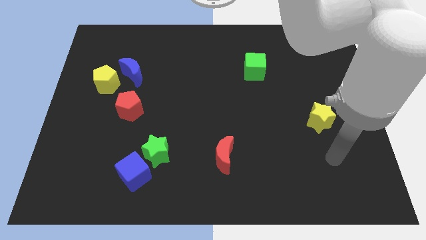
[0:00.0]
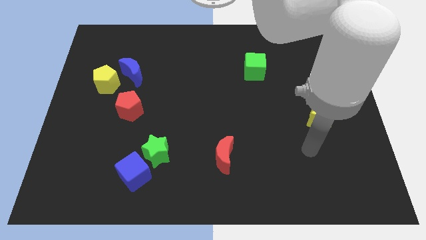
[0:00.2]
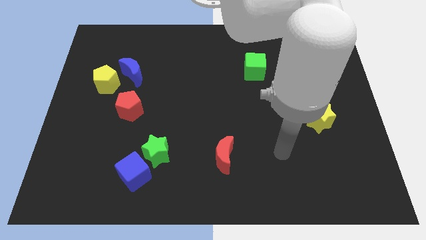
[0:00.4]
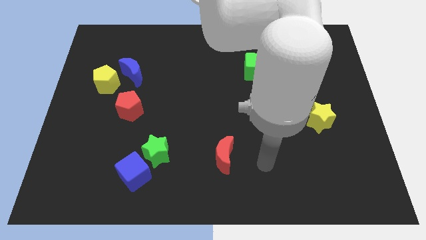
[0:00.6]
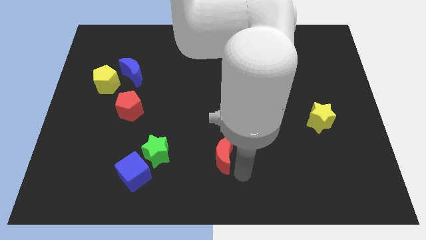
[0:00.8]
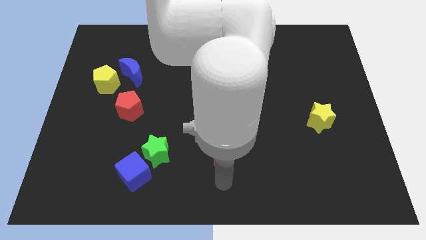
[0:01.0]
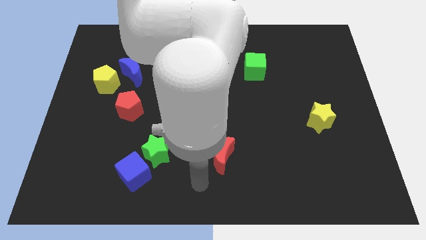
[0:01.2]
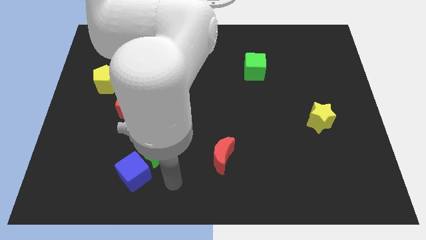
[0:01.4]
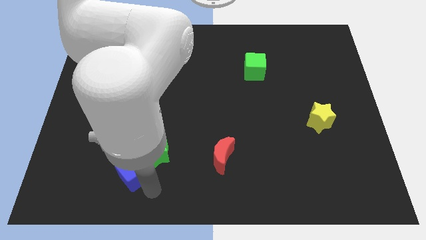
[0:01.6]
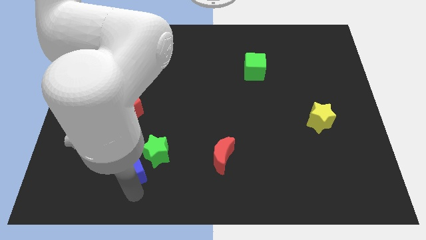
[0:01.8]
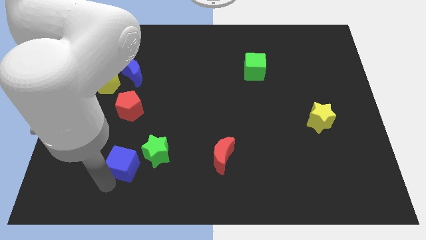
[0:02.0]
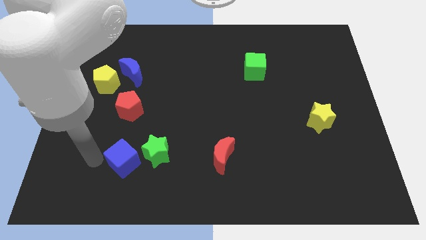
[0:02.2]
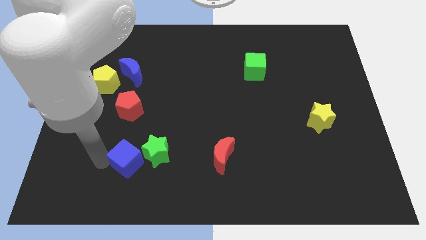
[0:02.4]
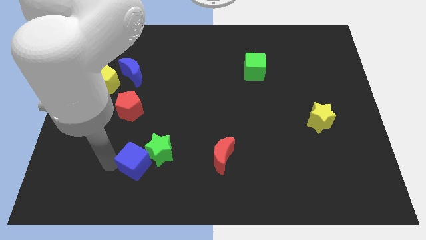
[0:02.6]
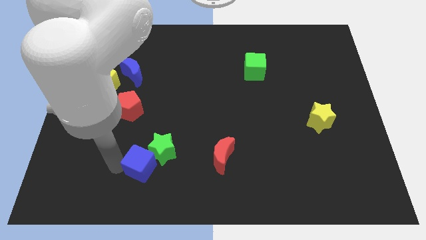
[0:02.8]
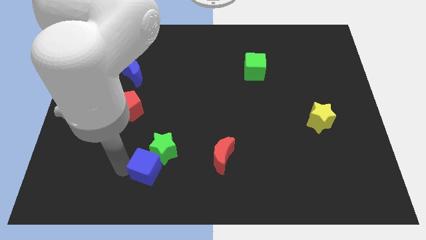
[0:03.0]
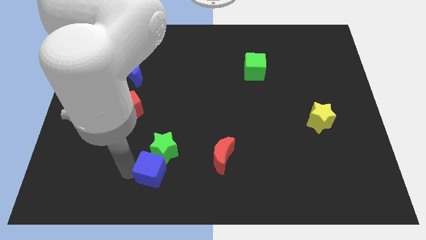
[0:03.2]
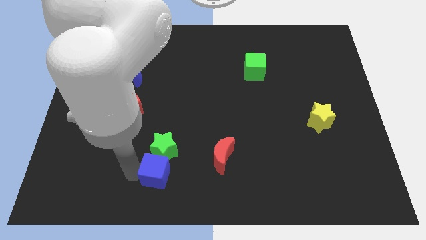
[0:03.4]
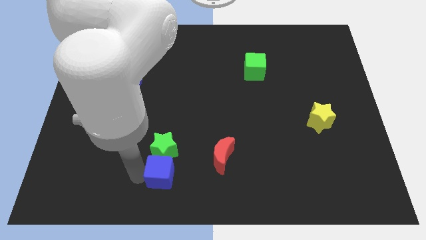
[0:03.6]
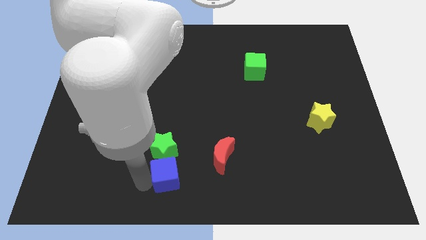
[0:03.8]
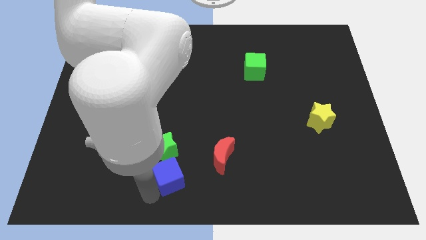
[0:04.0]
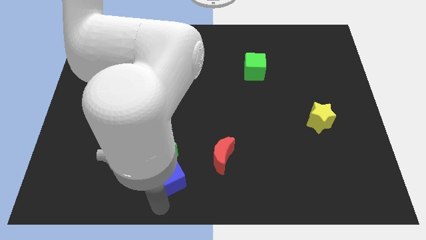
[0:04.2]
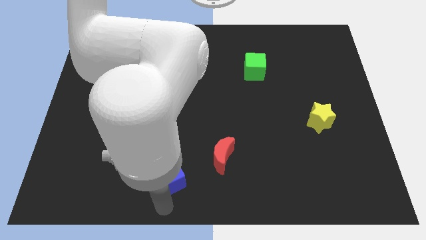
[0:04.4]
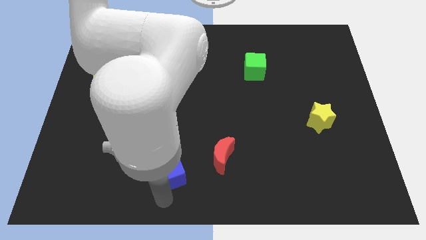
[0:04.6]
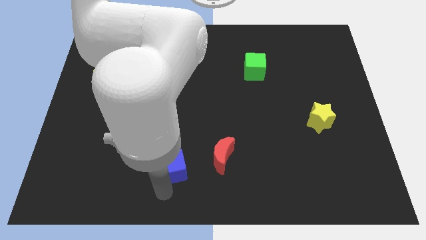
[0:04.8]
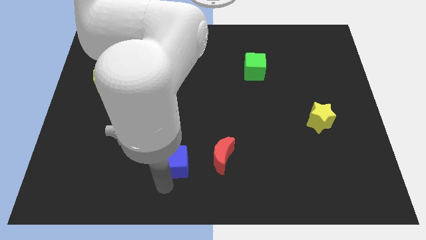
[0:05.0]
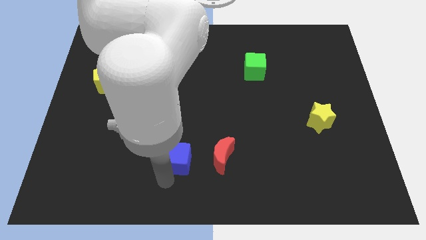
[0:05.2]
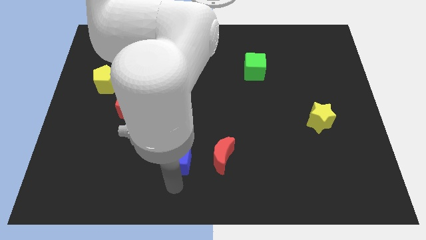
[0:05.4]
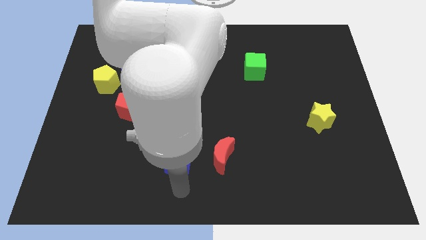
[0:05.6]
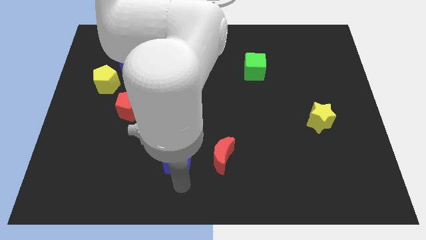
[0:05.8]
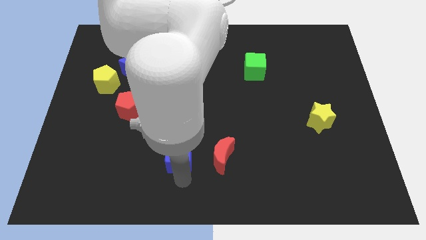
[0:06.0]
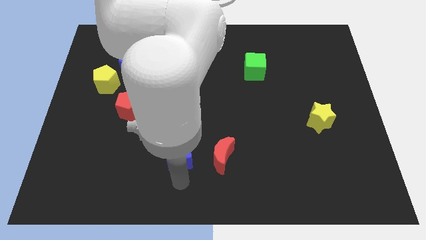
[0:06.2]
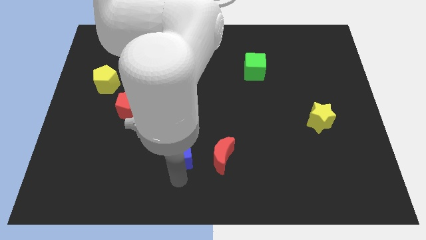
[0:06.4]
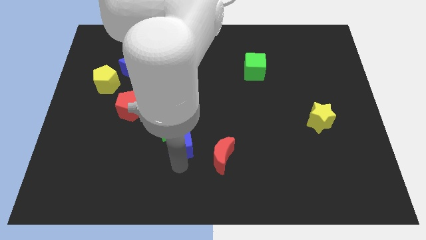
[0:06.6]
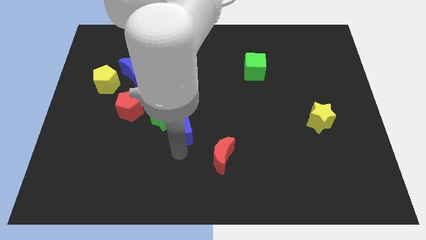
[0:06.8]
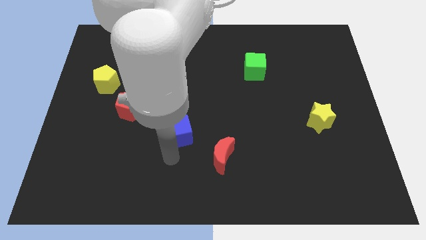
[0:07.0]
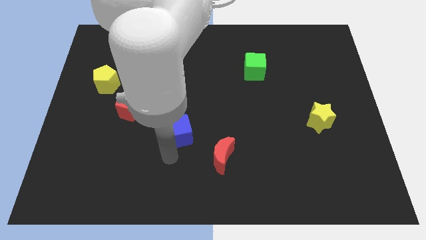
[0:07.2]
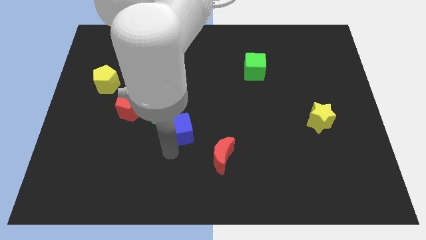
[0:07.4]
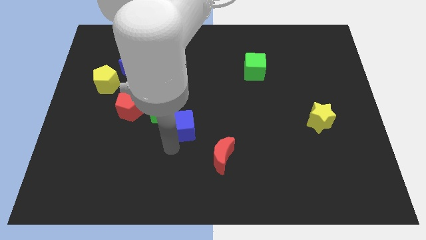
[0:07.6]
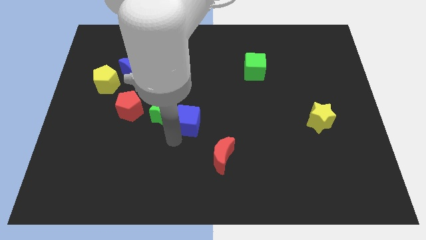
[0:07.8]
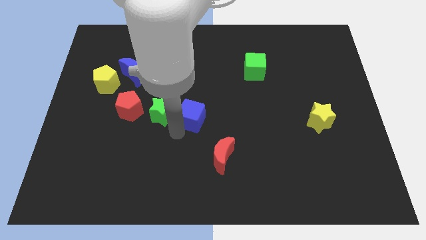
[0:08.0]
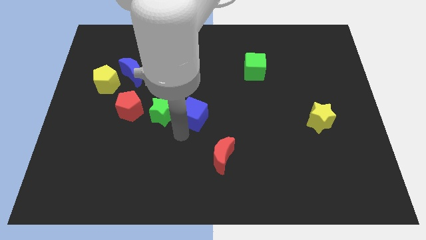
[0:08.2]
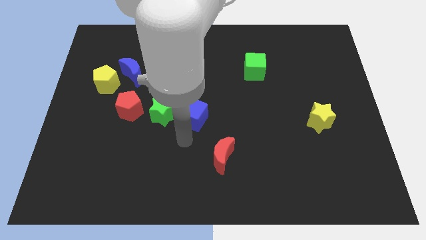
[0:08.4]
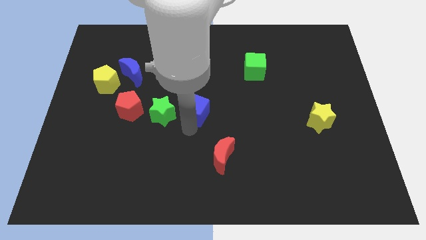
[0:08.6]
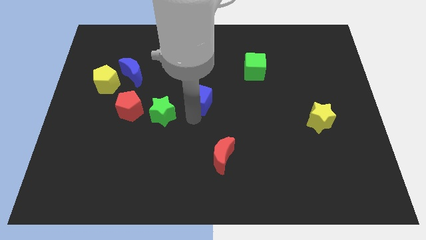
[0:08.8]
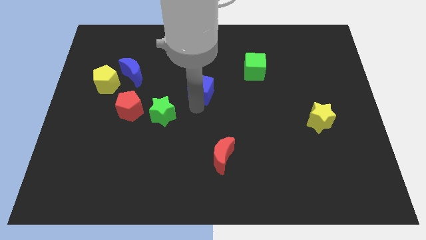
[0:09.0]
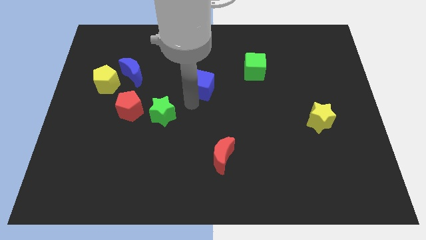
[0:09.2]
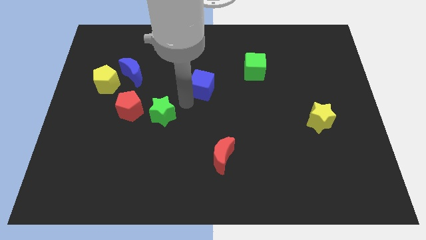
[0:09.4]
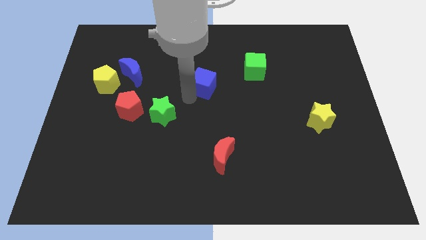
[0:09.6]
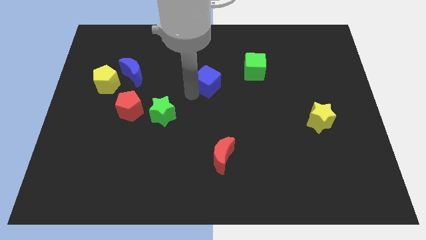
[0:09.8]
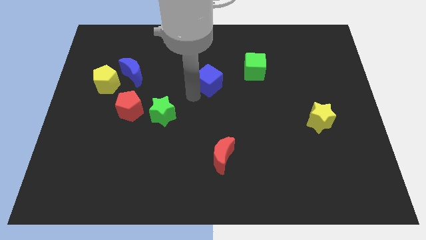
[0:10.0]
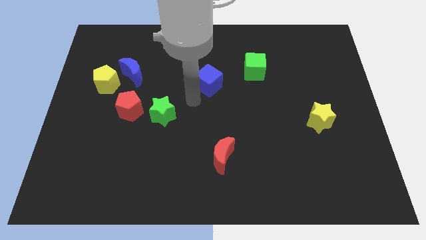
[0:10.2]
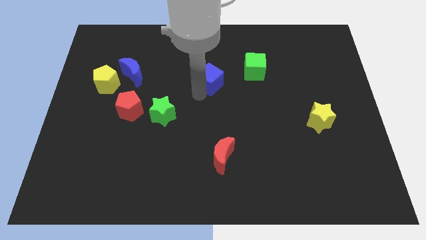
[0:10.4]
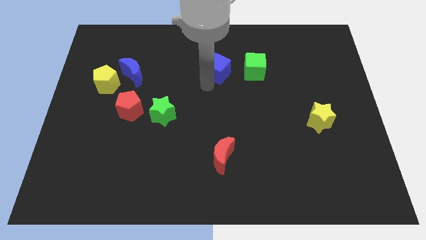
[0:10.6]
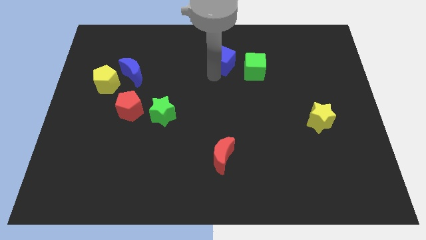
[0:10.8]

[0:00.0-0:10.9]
push the blue cube to the top left side of the green cube

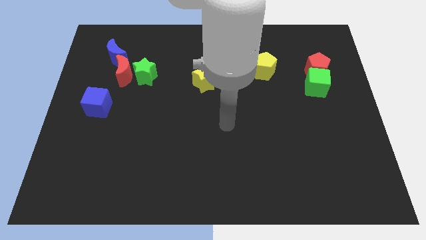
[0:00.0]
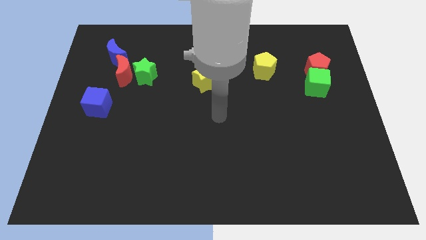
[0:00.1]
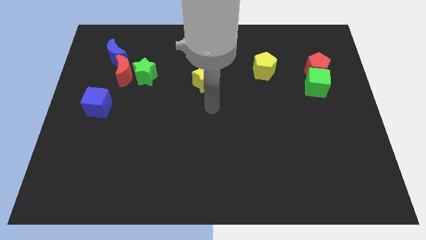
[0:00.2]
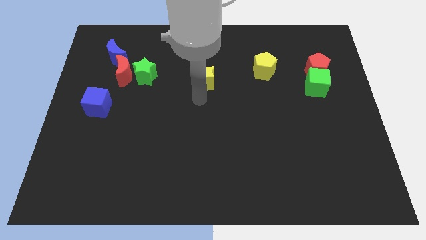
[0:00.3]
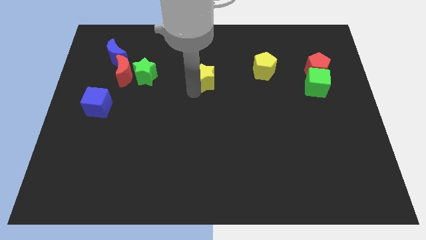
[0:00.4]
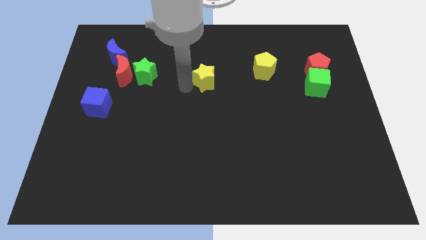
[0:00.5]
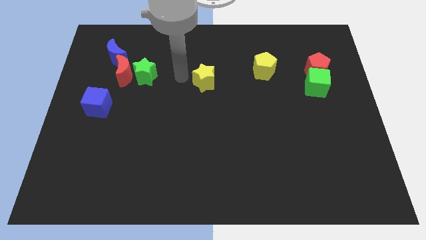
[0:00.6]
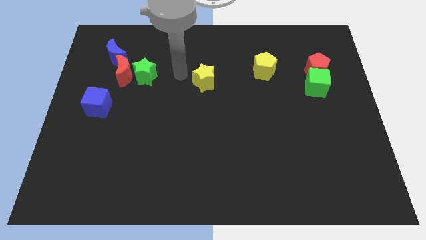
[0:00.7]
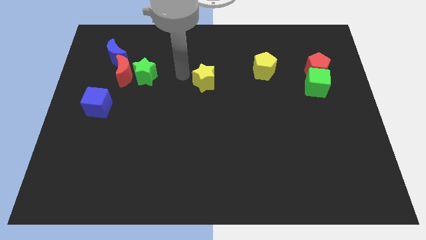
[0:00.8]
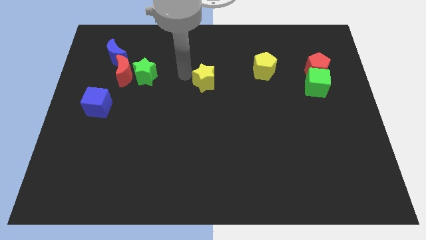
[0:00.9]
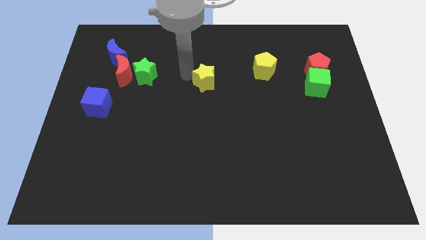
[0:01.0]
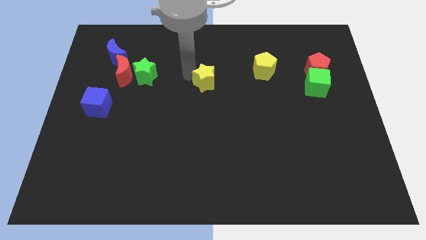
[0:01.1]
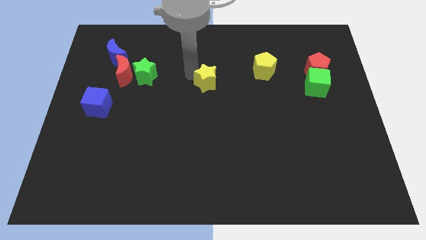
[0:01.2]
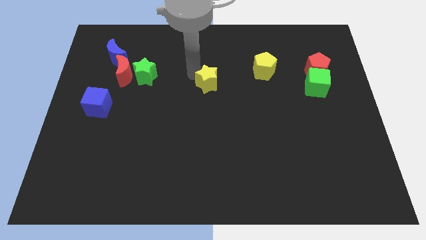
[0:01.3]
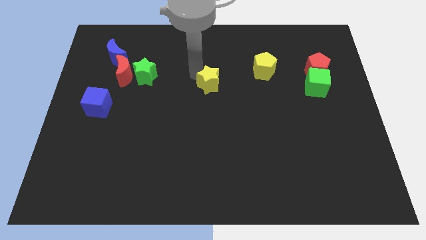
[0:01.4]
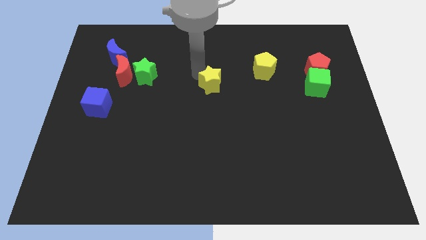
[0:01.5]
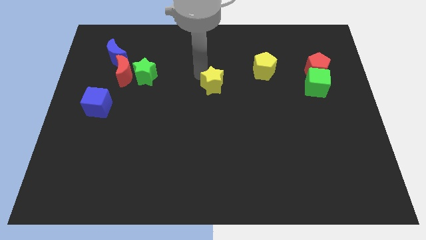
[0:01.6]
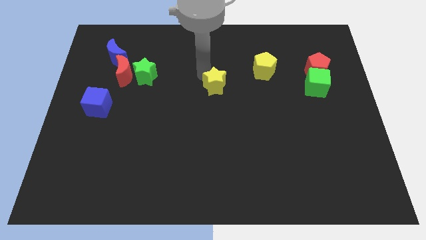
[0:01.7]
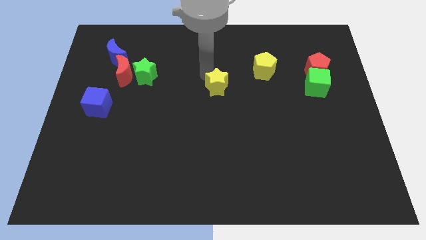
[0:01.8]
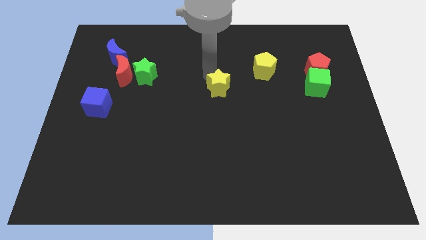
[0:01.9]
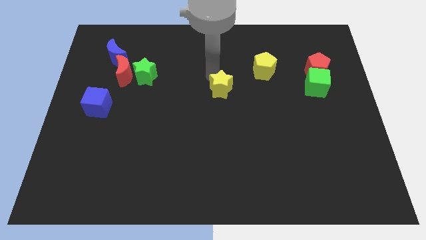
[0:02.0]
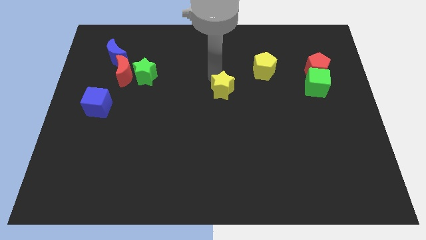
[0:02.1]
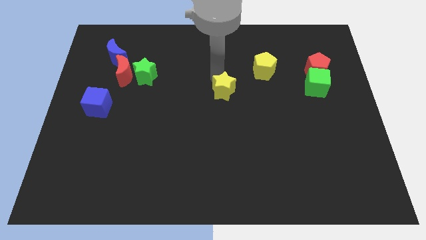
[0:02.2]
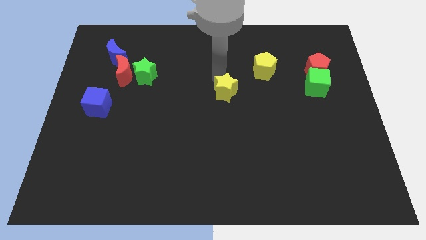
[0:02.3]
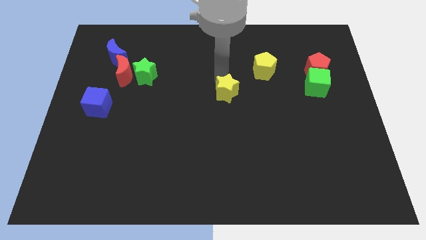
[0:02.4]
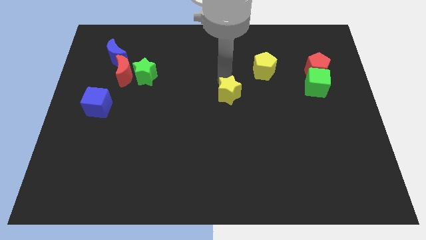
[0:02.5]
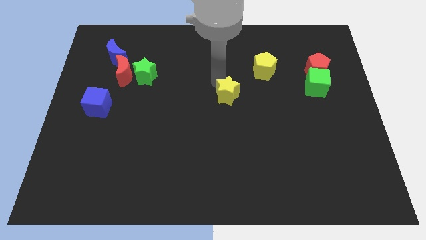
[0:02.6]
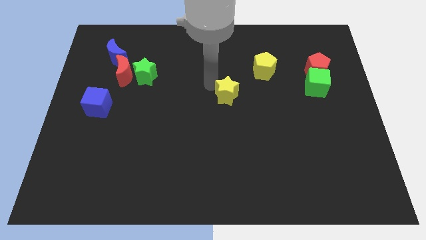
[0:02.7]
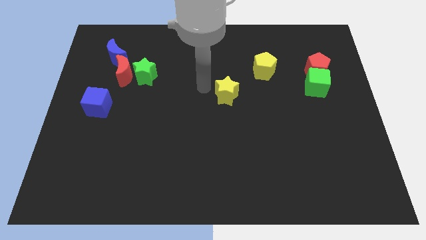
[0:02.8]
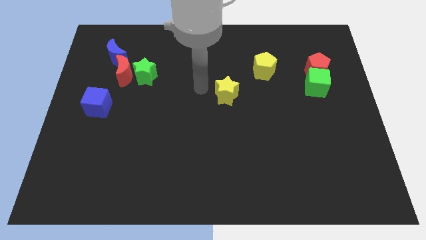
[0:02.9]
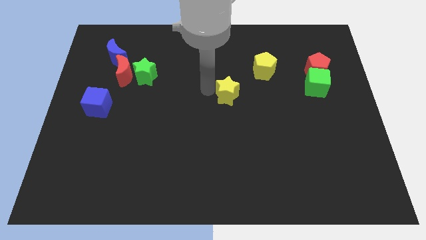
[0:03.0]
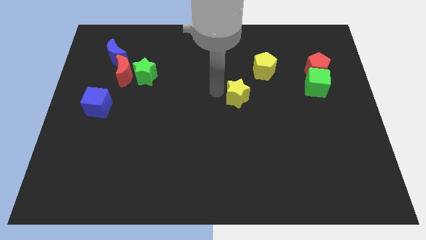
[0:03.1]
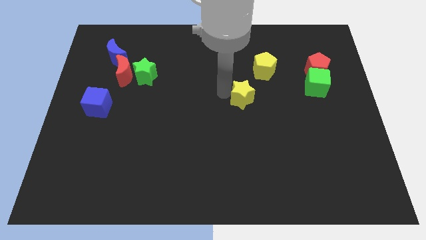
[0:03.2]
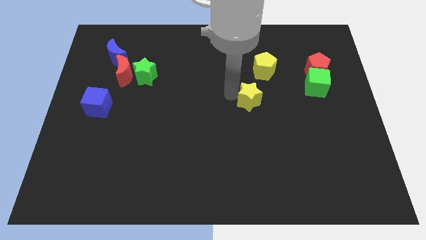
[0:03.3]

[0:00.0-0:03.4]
slide the yellow star to the bottom side of the yellow pentagon
